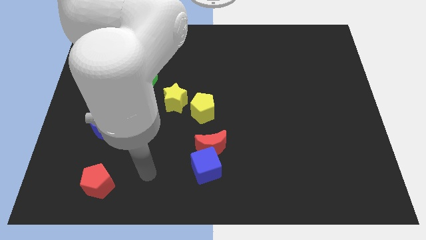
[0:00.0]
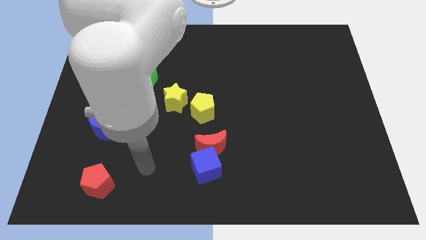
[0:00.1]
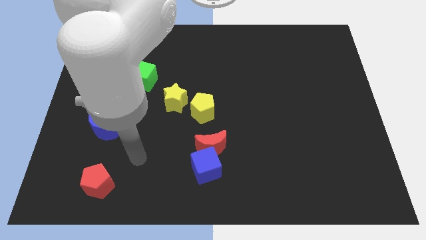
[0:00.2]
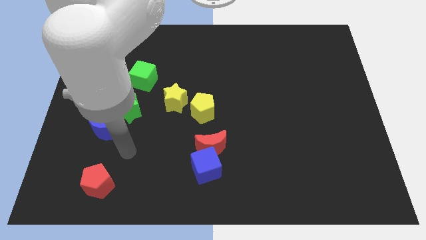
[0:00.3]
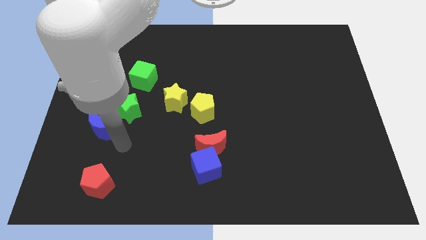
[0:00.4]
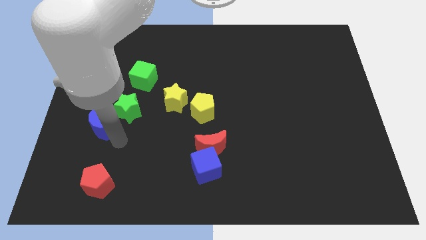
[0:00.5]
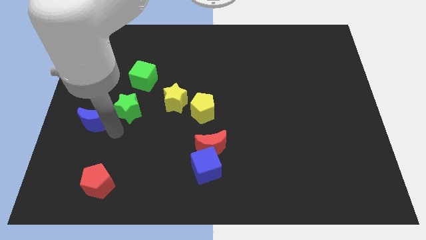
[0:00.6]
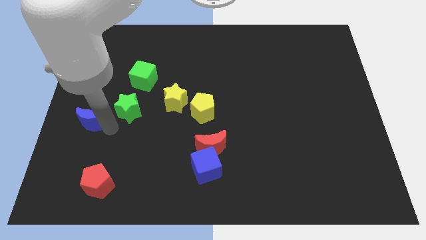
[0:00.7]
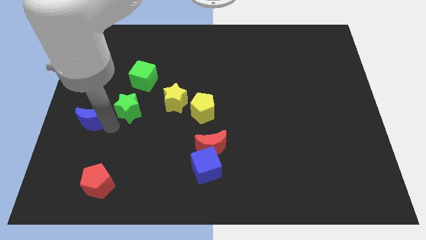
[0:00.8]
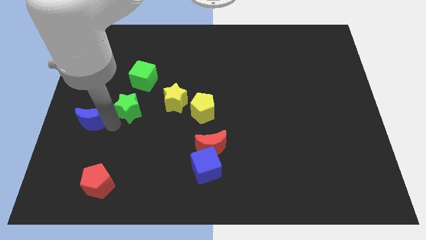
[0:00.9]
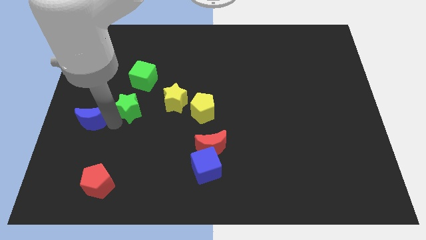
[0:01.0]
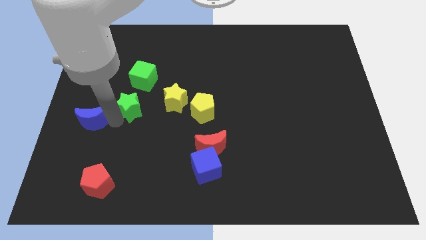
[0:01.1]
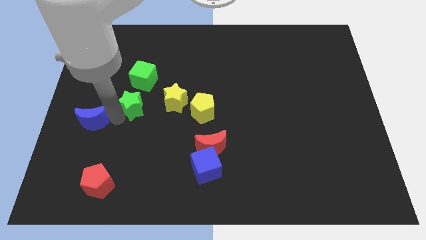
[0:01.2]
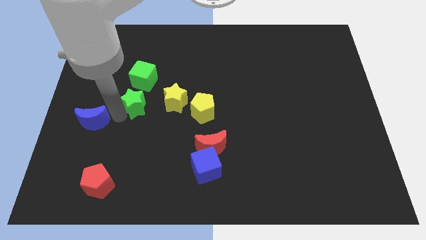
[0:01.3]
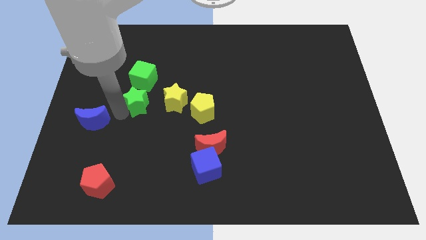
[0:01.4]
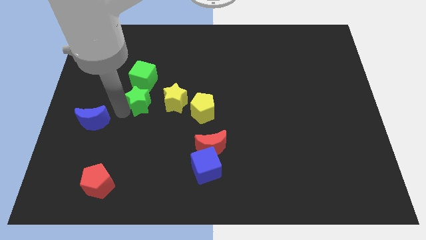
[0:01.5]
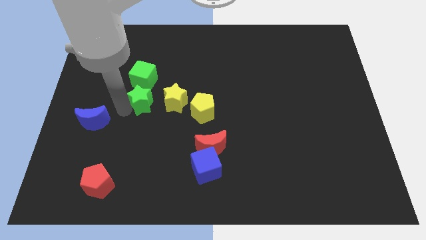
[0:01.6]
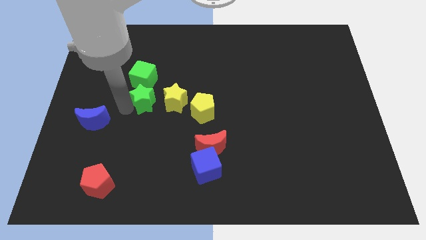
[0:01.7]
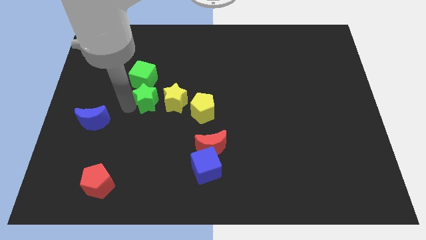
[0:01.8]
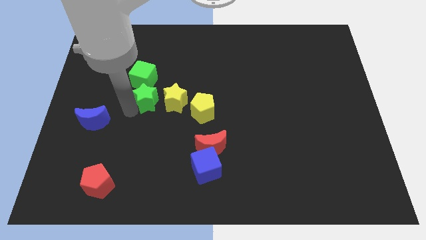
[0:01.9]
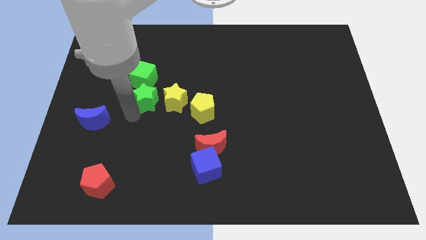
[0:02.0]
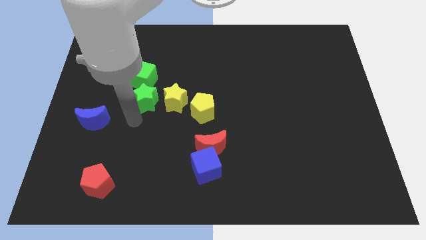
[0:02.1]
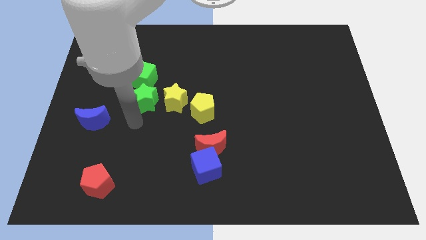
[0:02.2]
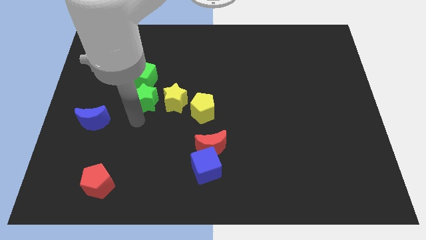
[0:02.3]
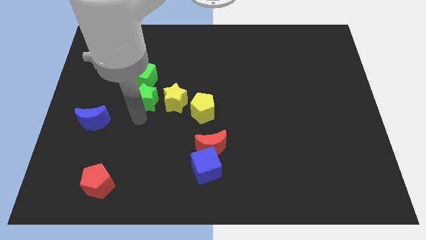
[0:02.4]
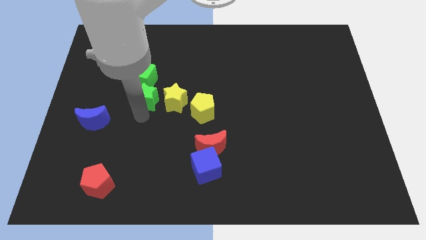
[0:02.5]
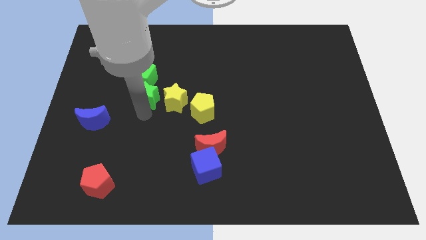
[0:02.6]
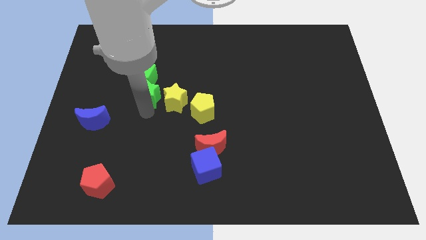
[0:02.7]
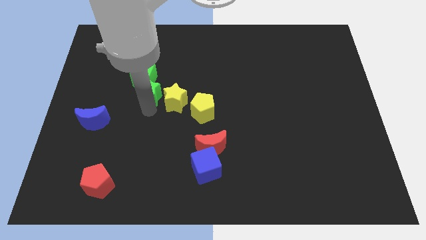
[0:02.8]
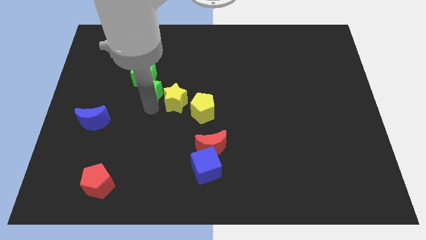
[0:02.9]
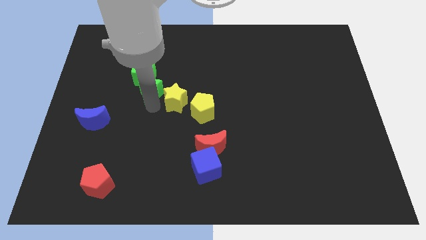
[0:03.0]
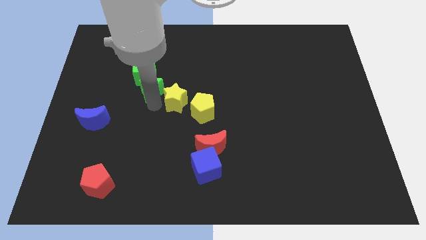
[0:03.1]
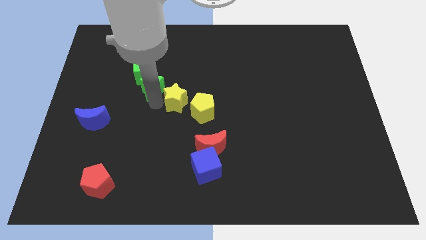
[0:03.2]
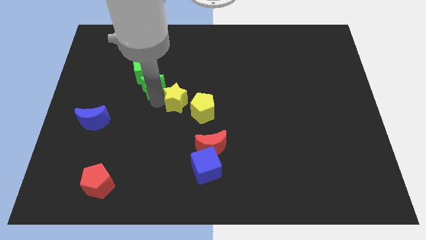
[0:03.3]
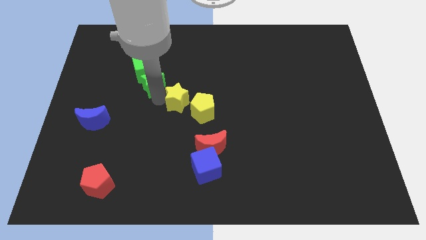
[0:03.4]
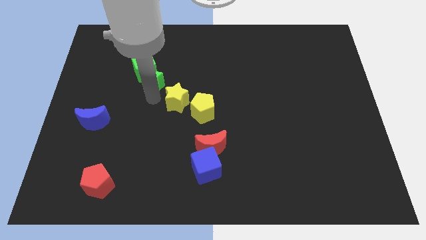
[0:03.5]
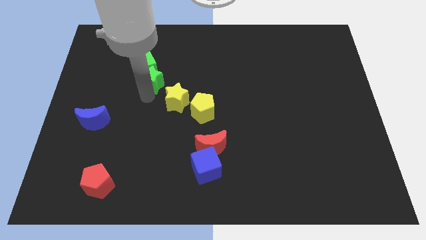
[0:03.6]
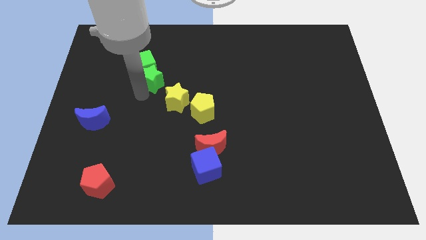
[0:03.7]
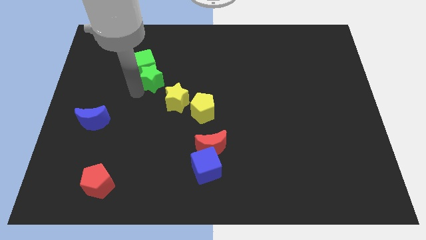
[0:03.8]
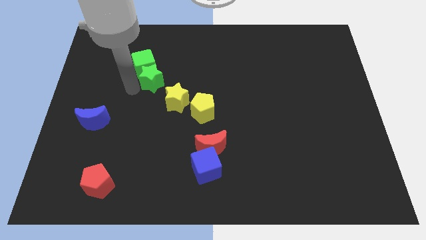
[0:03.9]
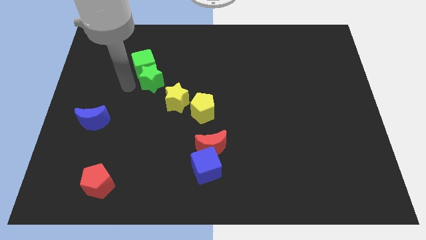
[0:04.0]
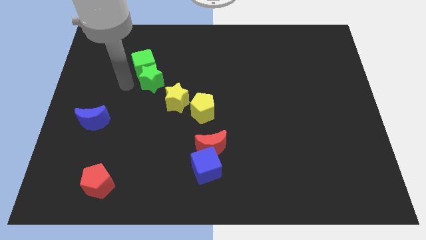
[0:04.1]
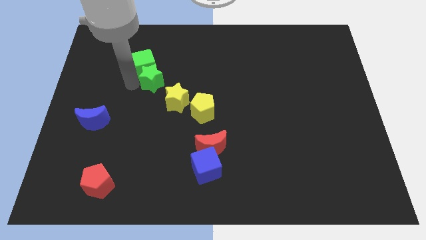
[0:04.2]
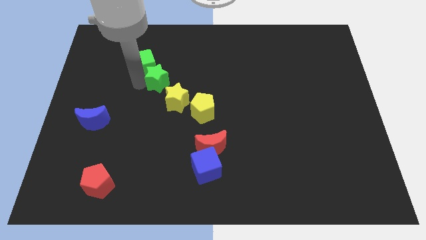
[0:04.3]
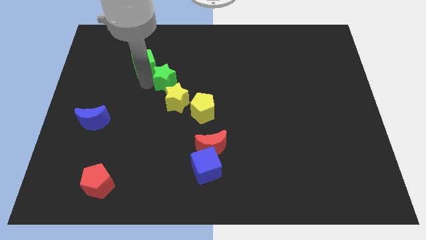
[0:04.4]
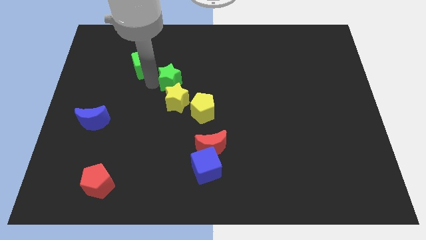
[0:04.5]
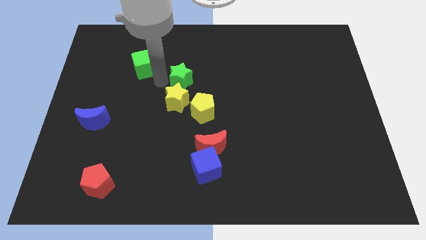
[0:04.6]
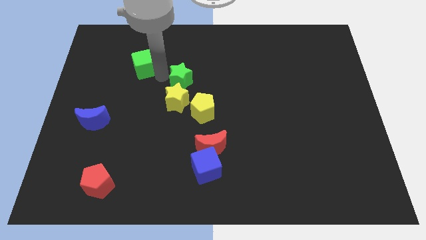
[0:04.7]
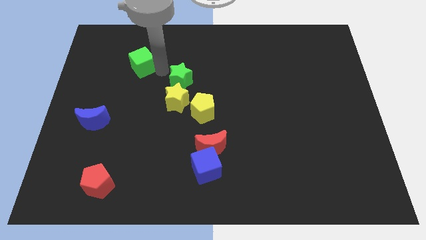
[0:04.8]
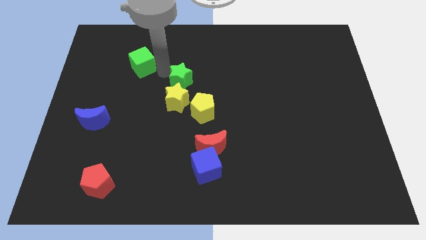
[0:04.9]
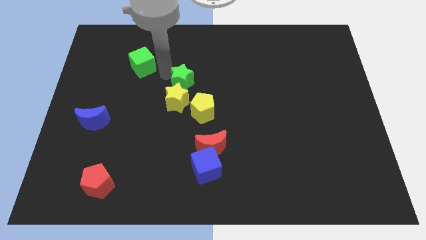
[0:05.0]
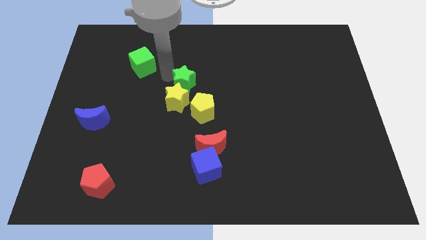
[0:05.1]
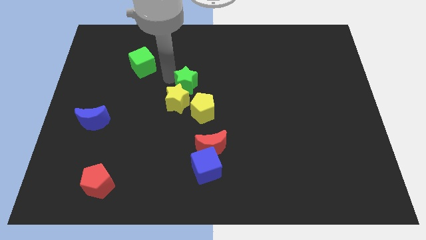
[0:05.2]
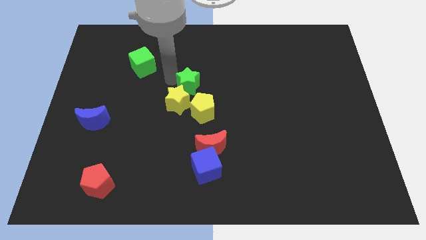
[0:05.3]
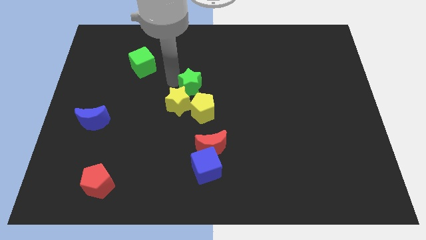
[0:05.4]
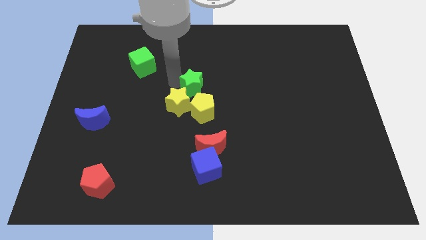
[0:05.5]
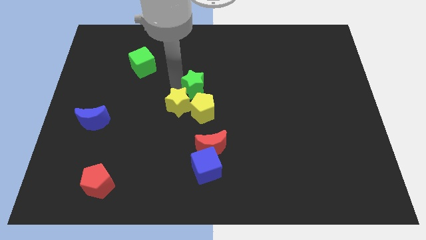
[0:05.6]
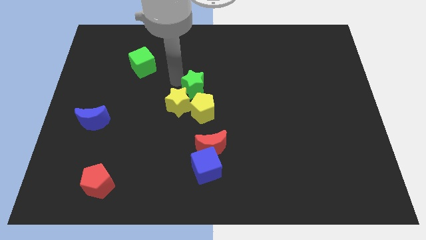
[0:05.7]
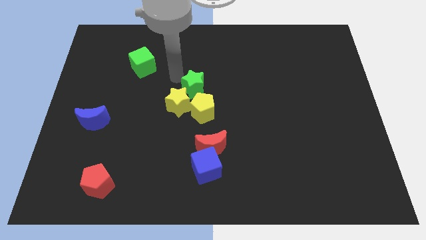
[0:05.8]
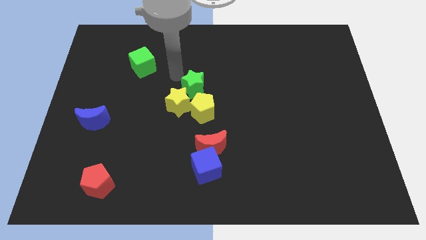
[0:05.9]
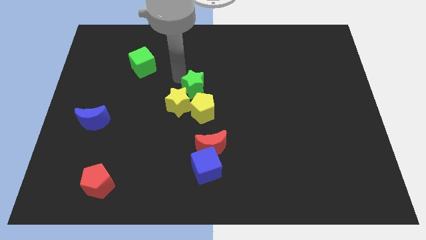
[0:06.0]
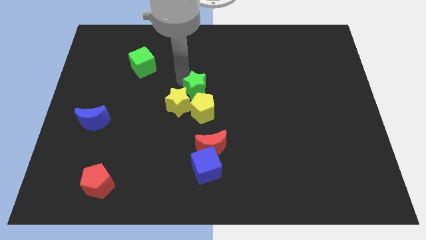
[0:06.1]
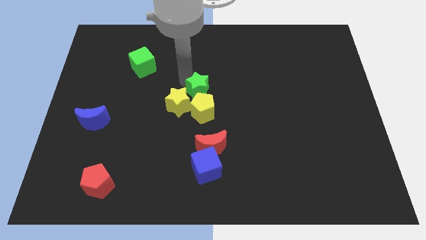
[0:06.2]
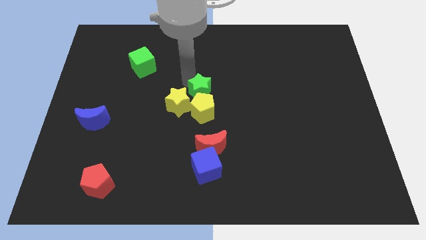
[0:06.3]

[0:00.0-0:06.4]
move the green star to the top side of the red moon

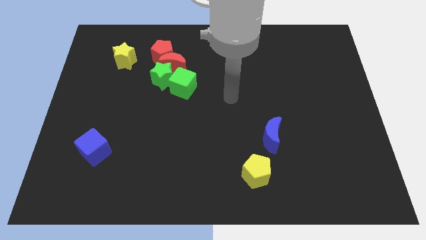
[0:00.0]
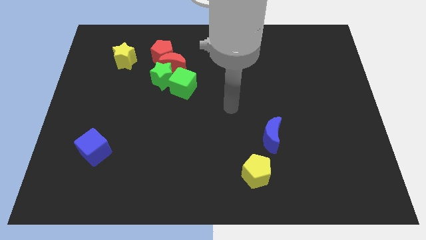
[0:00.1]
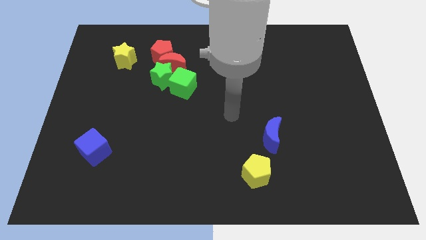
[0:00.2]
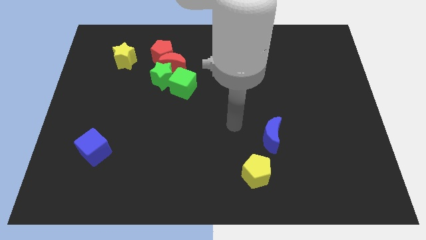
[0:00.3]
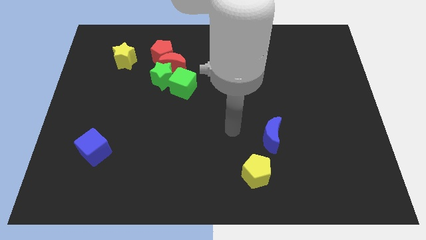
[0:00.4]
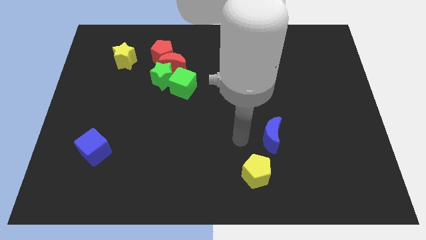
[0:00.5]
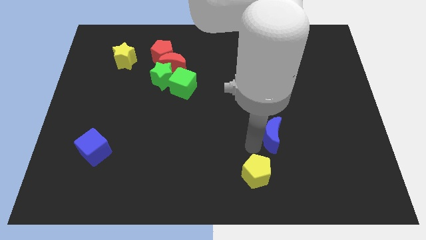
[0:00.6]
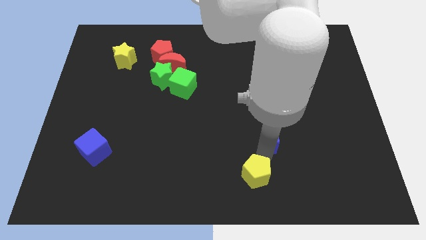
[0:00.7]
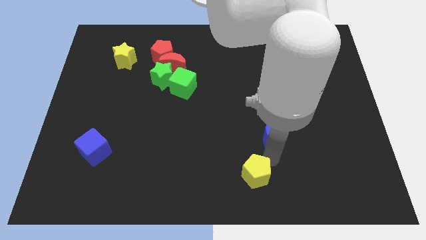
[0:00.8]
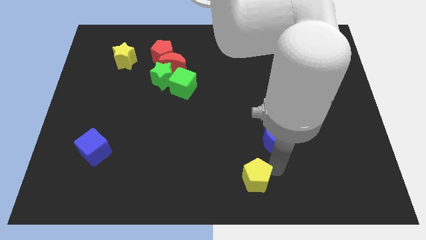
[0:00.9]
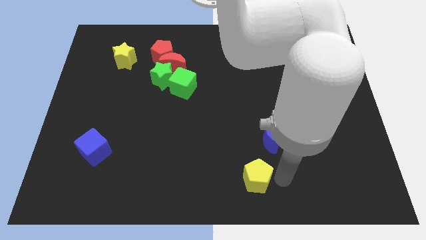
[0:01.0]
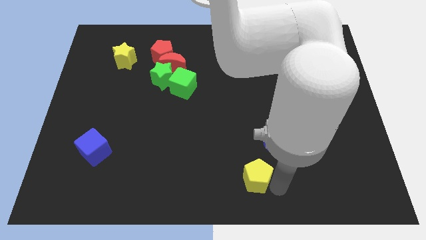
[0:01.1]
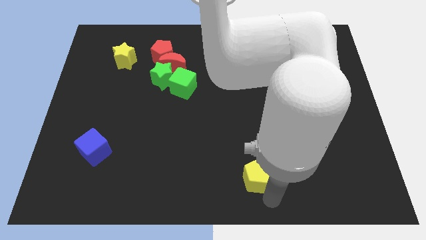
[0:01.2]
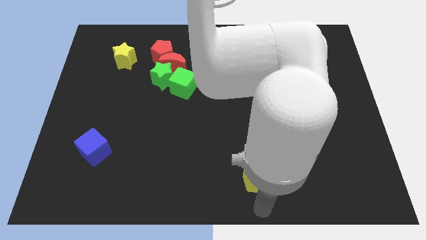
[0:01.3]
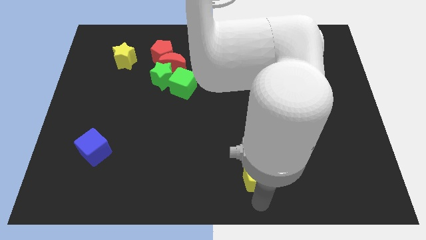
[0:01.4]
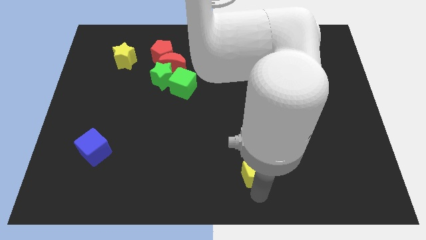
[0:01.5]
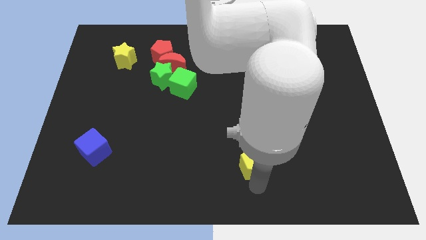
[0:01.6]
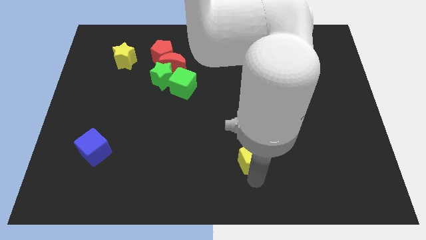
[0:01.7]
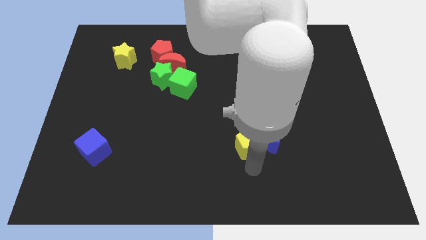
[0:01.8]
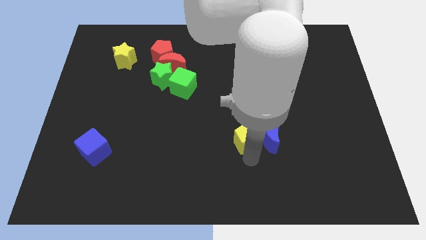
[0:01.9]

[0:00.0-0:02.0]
push the yellow pentagon diagonally up and to the left of the blue moon
